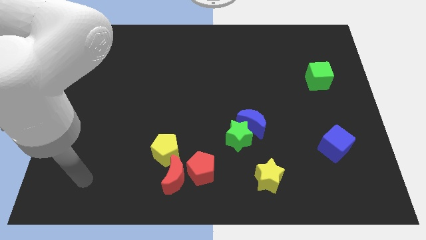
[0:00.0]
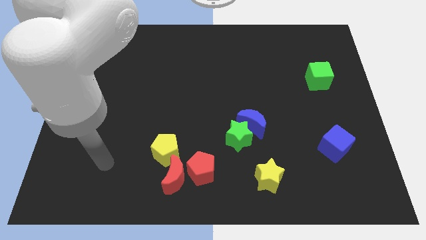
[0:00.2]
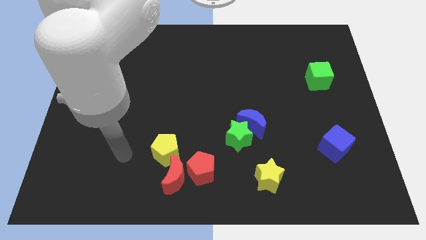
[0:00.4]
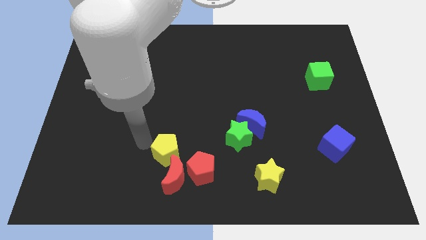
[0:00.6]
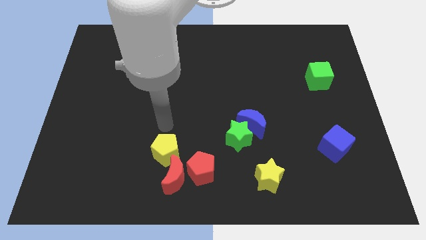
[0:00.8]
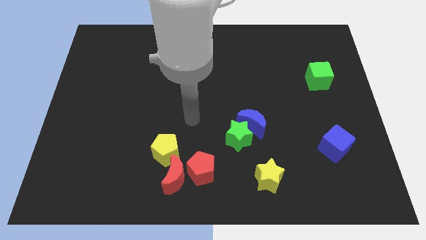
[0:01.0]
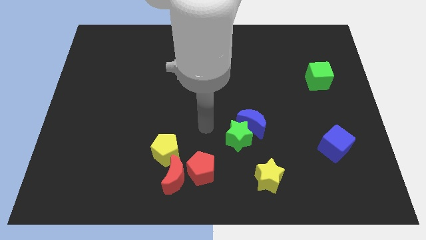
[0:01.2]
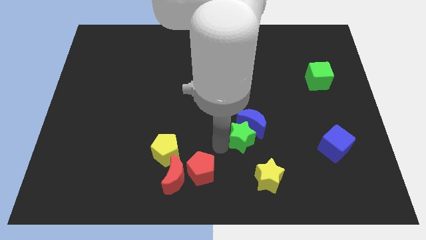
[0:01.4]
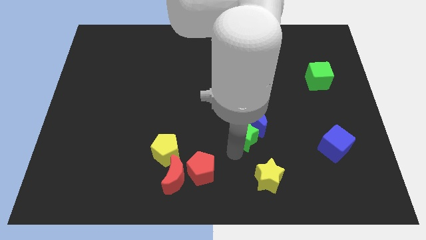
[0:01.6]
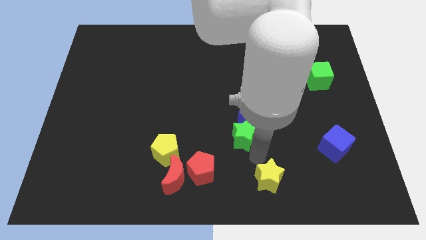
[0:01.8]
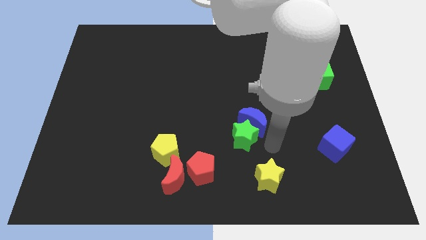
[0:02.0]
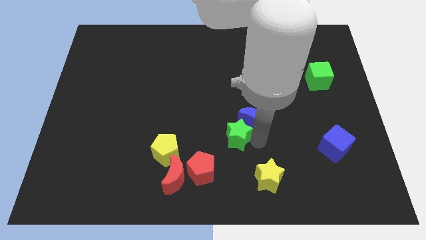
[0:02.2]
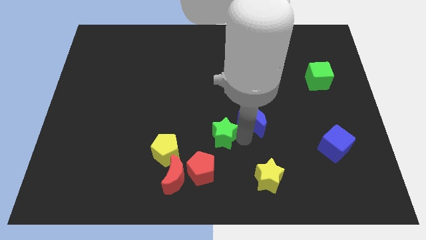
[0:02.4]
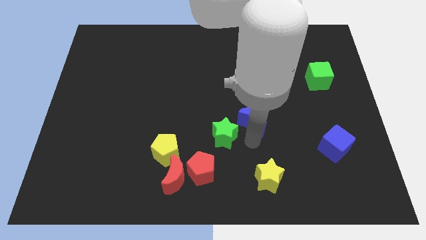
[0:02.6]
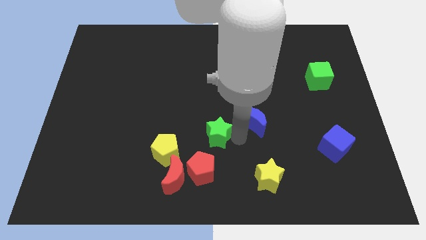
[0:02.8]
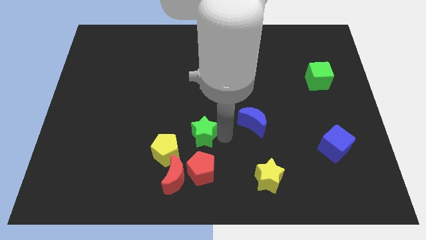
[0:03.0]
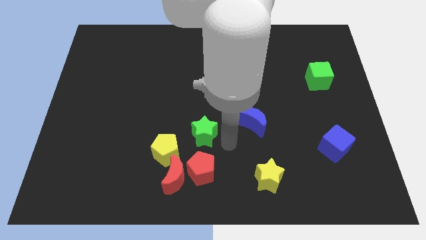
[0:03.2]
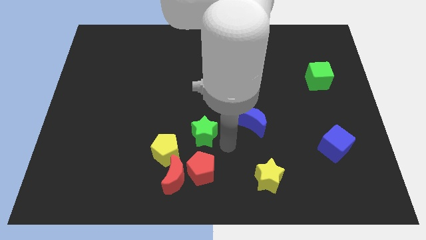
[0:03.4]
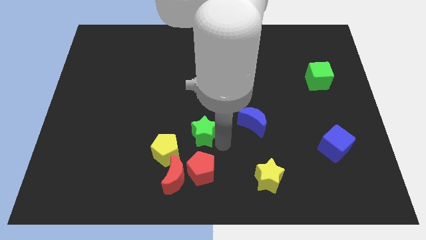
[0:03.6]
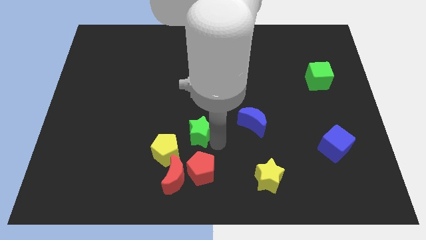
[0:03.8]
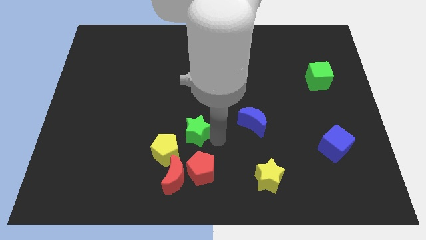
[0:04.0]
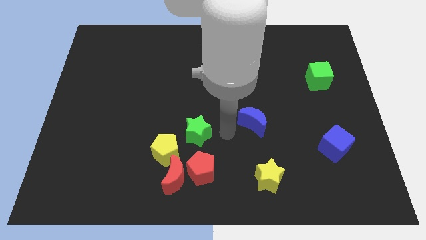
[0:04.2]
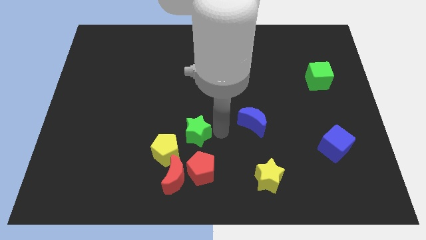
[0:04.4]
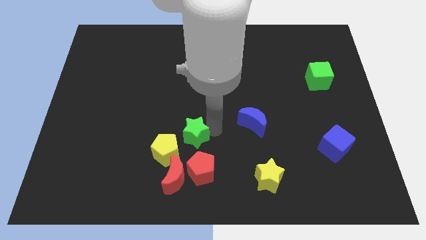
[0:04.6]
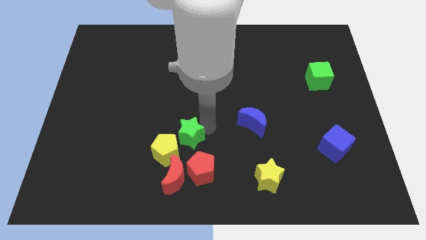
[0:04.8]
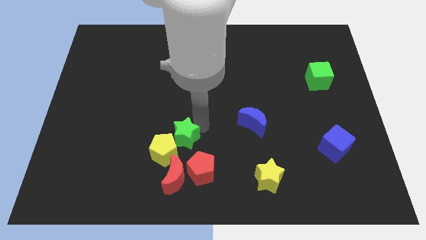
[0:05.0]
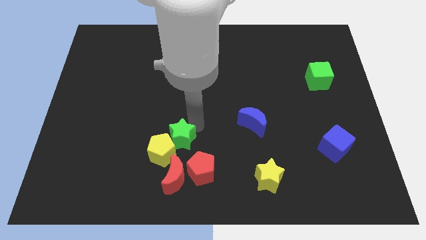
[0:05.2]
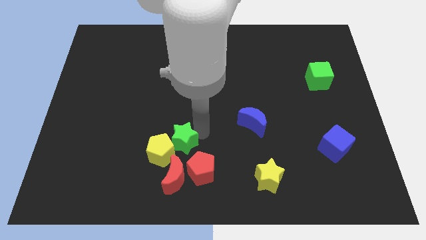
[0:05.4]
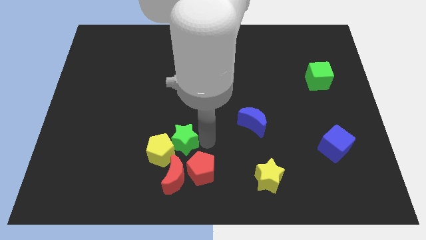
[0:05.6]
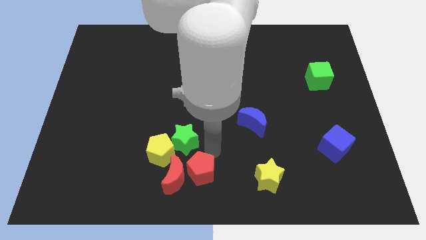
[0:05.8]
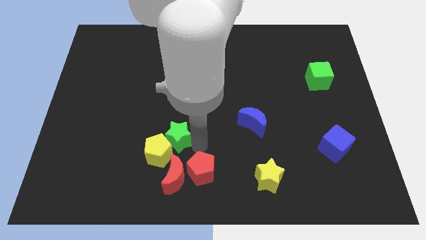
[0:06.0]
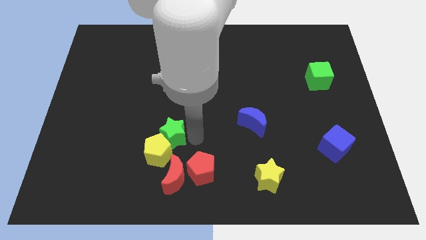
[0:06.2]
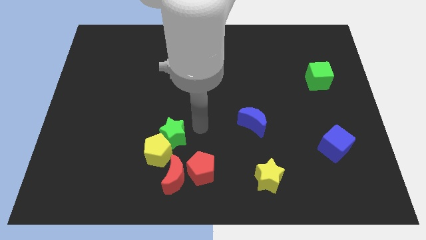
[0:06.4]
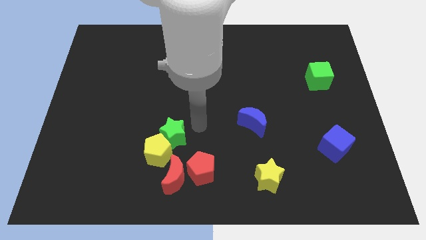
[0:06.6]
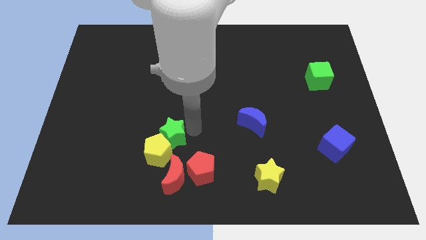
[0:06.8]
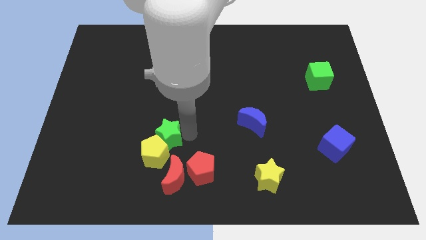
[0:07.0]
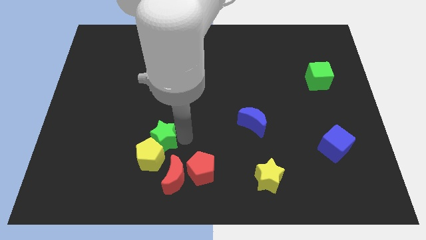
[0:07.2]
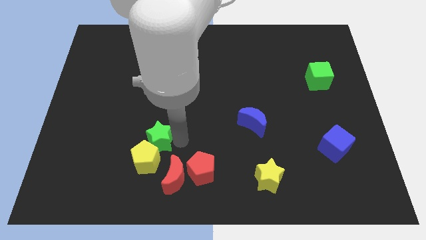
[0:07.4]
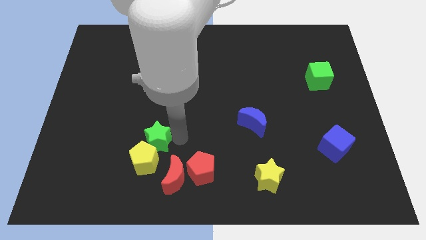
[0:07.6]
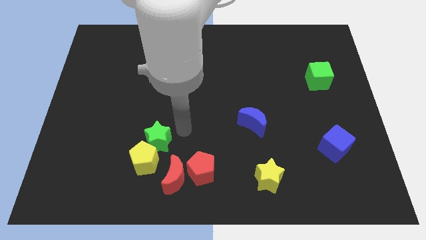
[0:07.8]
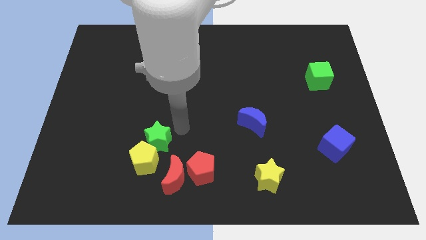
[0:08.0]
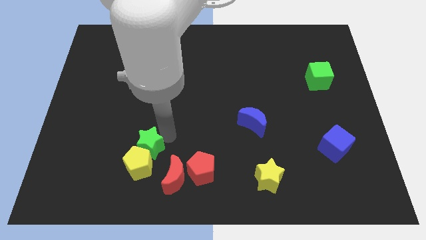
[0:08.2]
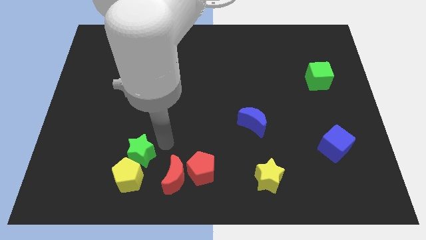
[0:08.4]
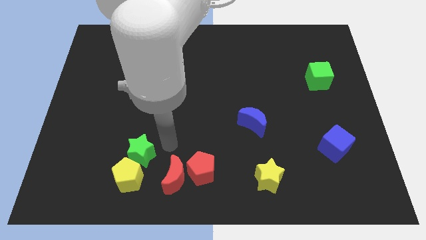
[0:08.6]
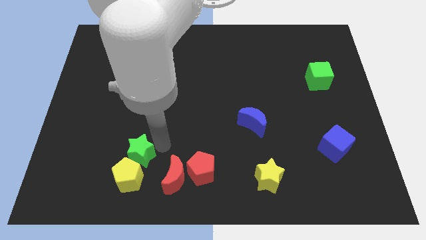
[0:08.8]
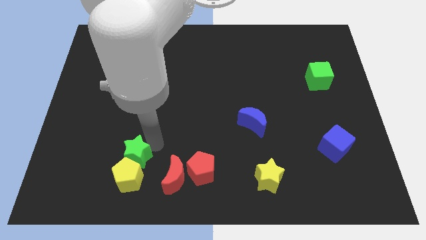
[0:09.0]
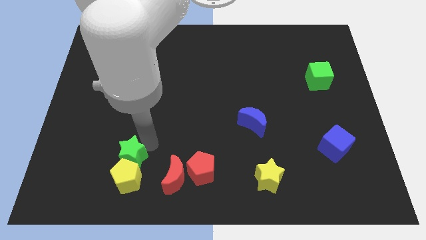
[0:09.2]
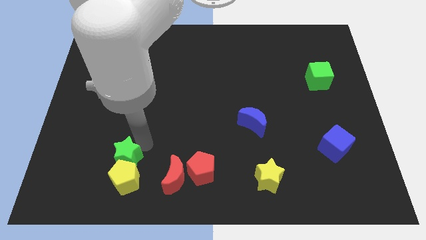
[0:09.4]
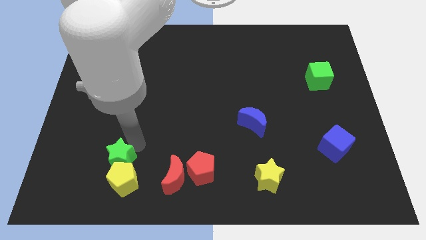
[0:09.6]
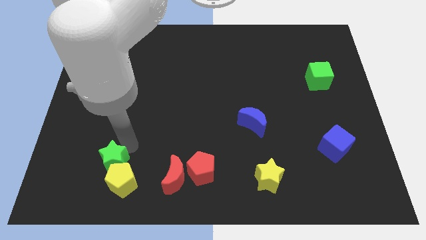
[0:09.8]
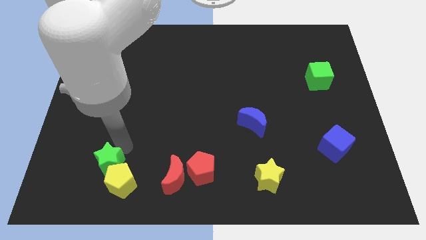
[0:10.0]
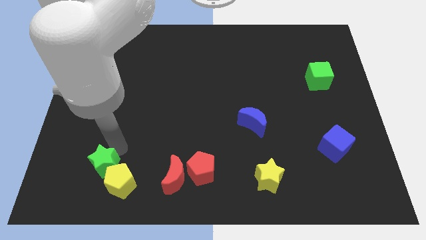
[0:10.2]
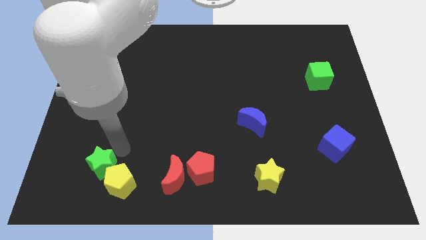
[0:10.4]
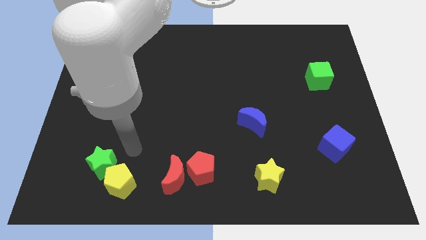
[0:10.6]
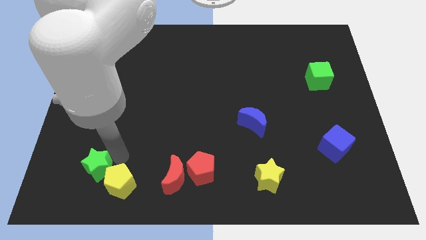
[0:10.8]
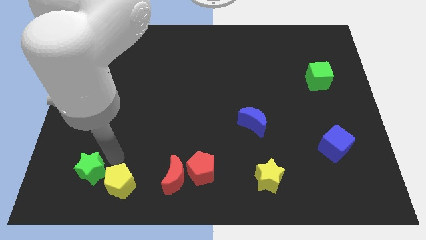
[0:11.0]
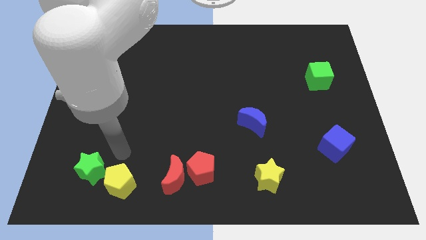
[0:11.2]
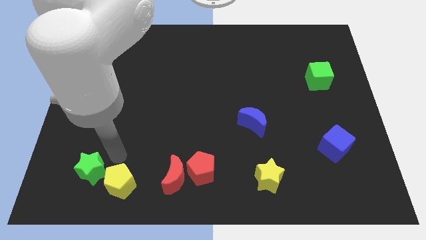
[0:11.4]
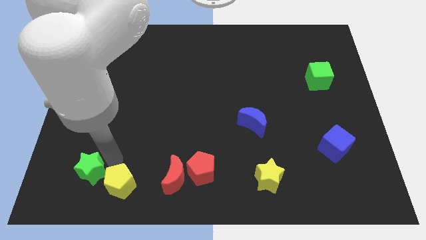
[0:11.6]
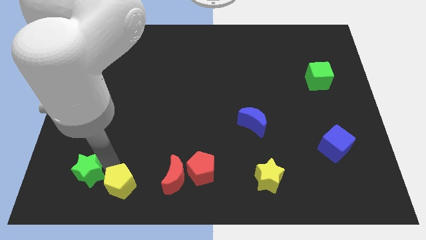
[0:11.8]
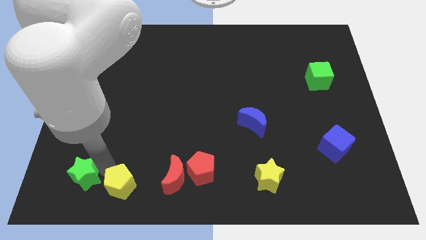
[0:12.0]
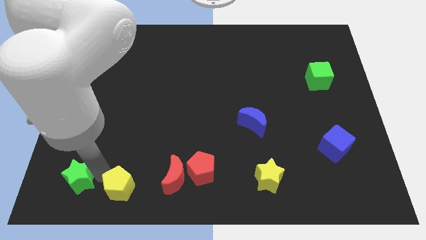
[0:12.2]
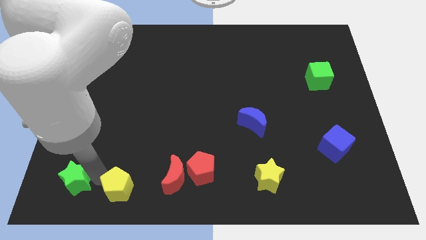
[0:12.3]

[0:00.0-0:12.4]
move the green star to the bottom left corner

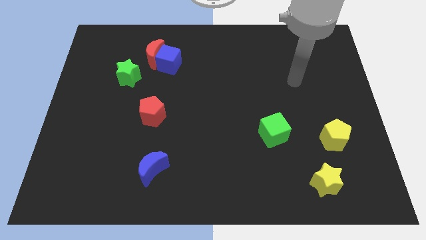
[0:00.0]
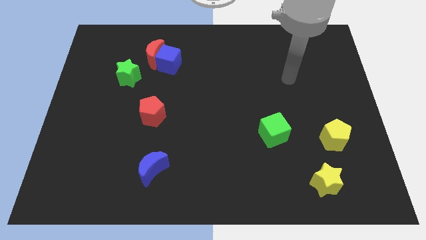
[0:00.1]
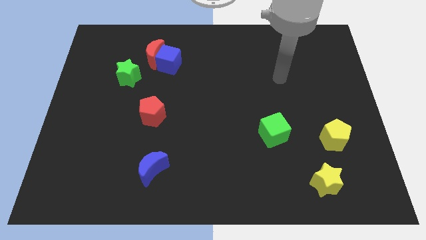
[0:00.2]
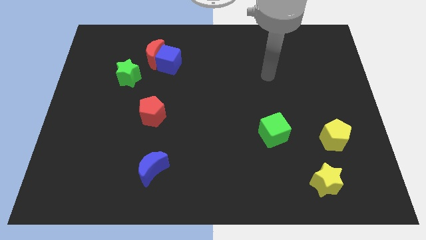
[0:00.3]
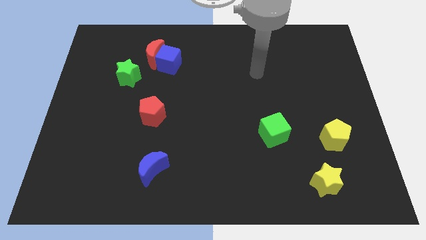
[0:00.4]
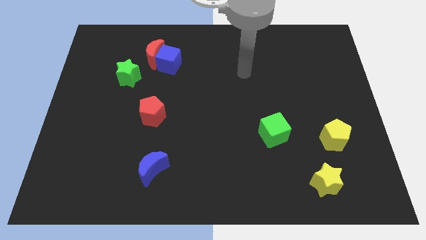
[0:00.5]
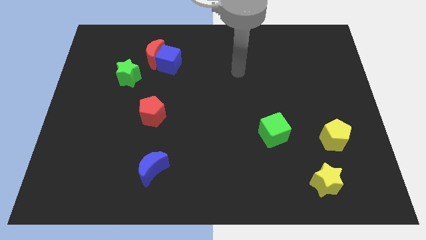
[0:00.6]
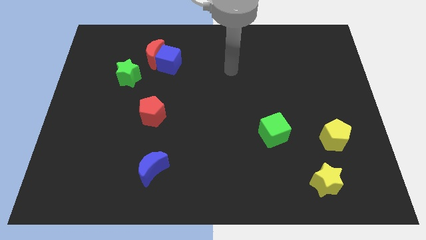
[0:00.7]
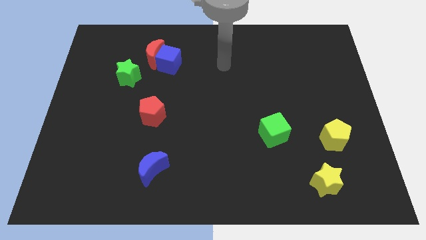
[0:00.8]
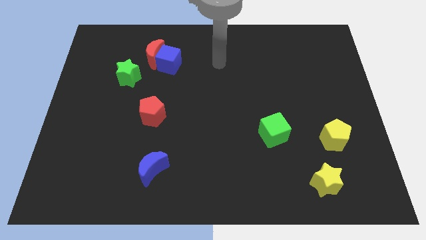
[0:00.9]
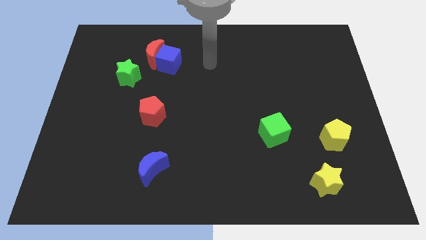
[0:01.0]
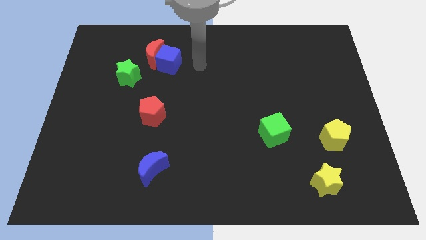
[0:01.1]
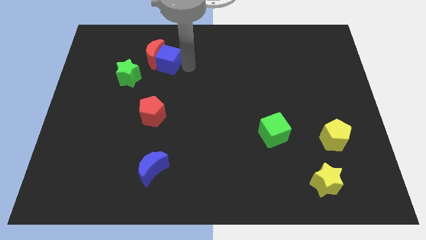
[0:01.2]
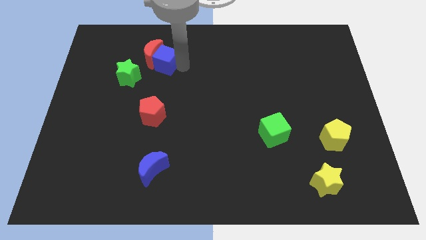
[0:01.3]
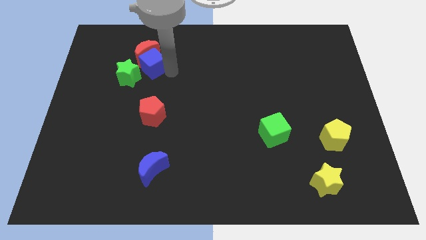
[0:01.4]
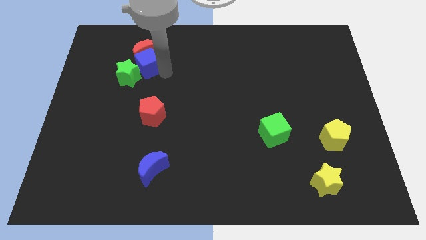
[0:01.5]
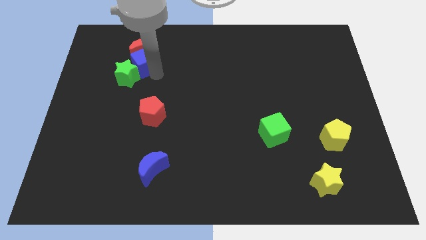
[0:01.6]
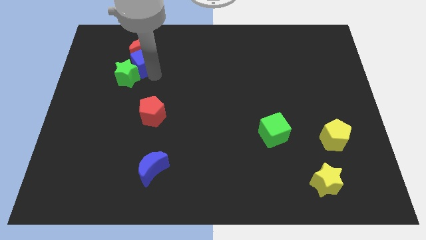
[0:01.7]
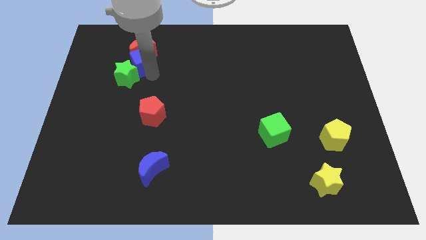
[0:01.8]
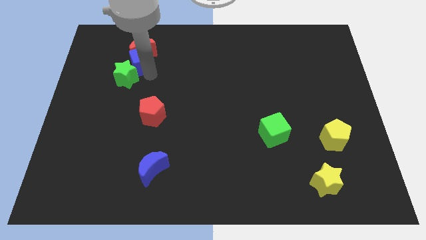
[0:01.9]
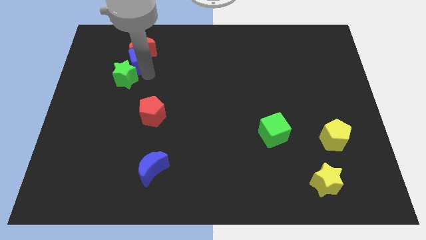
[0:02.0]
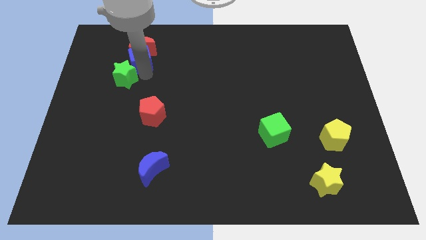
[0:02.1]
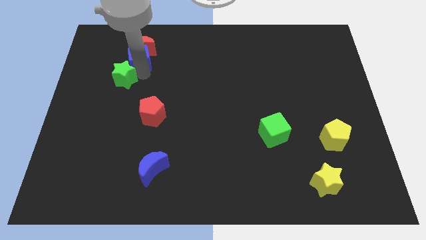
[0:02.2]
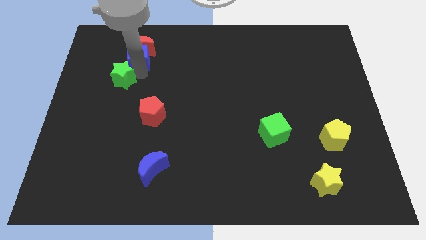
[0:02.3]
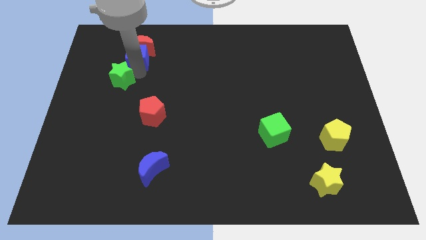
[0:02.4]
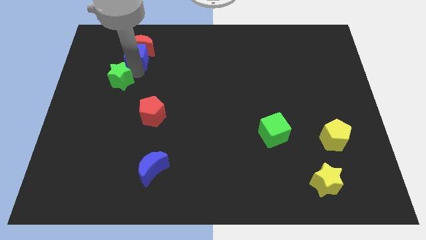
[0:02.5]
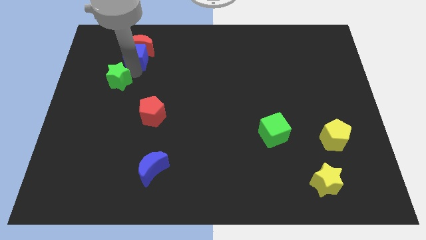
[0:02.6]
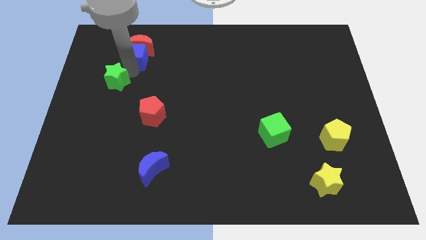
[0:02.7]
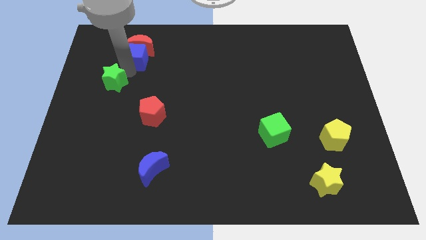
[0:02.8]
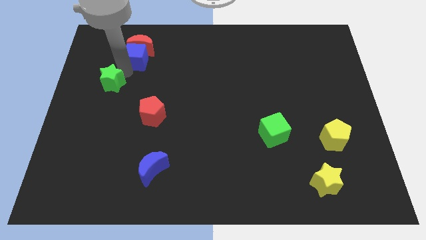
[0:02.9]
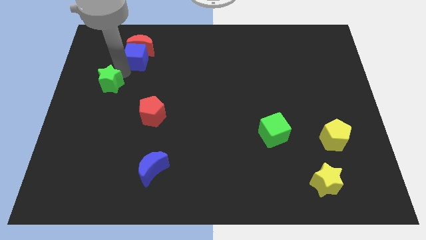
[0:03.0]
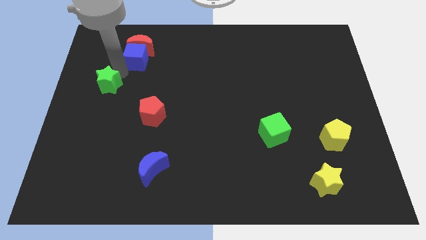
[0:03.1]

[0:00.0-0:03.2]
put the green star to the left side of the board
